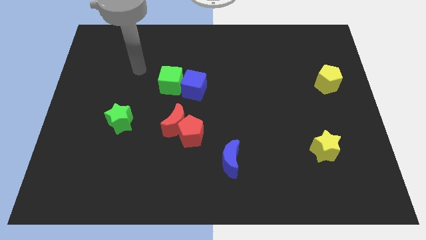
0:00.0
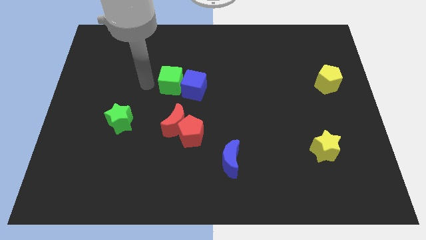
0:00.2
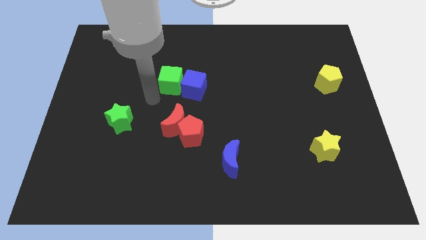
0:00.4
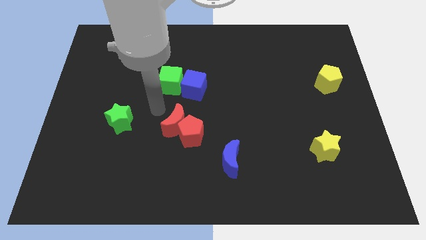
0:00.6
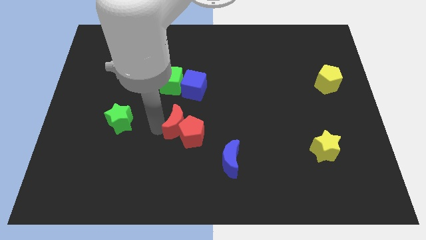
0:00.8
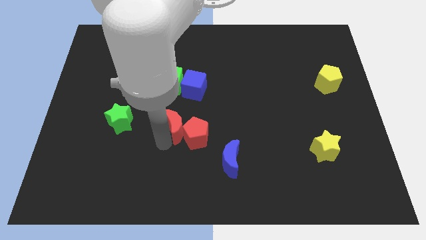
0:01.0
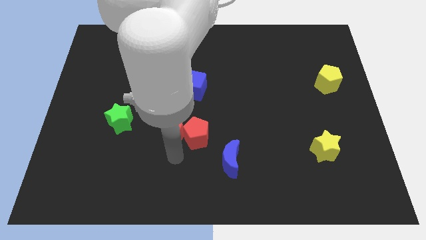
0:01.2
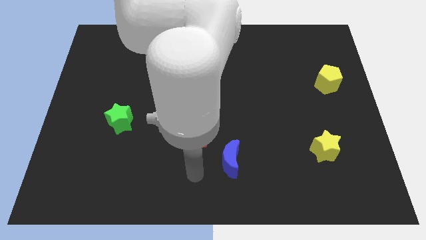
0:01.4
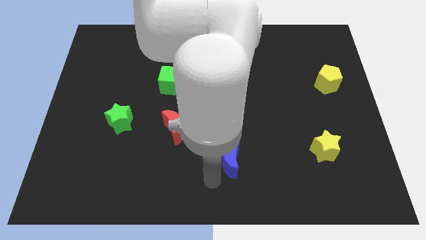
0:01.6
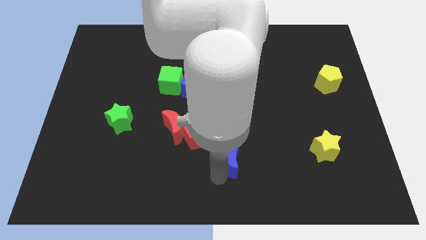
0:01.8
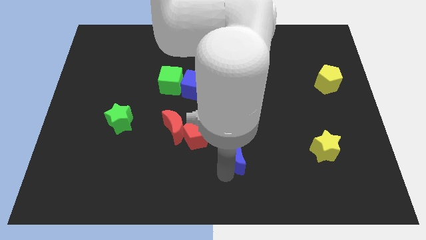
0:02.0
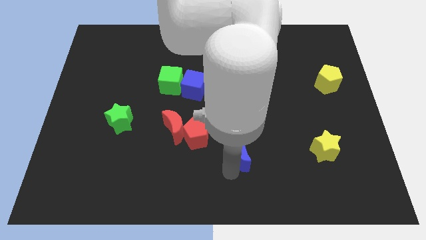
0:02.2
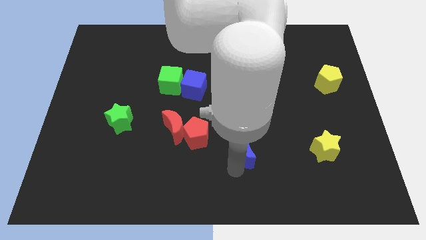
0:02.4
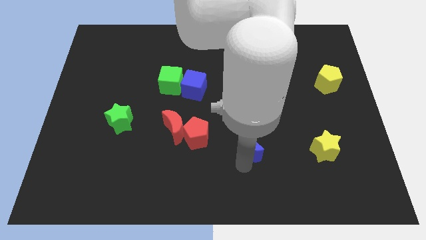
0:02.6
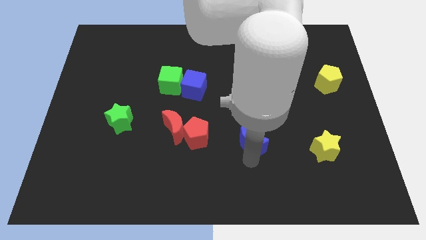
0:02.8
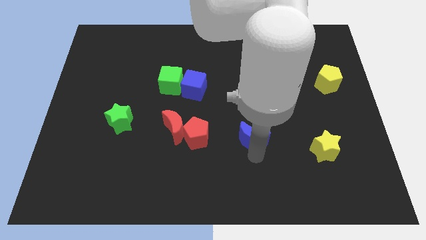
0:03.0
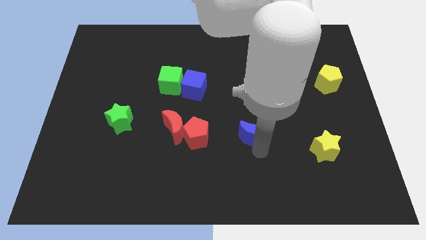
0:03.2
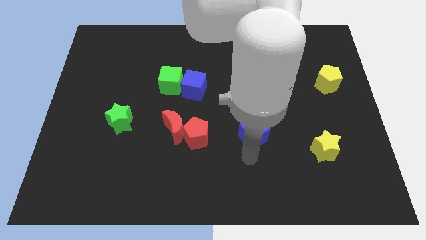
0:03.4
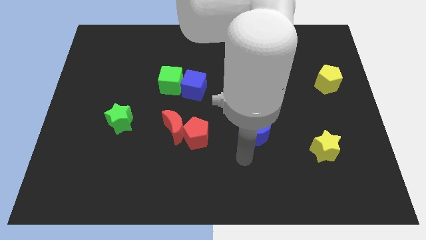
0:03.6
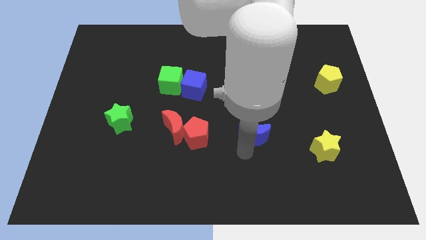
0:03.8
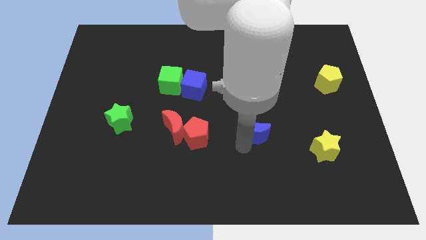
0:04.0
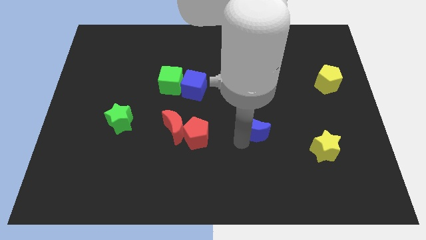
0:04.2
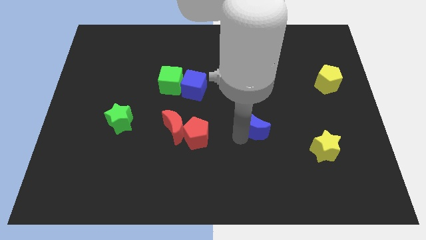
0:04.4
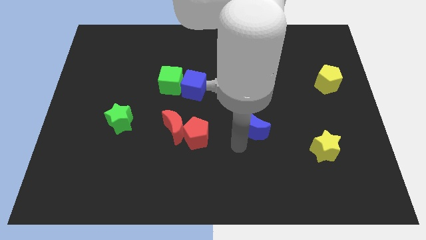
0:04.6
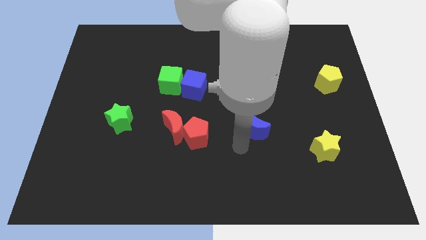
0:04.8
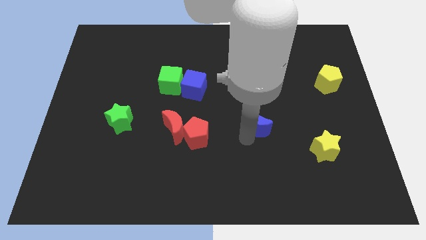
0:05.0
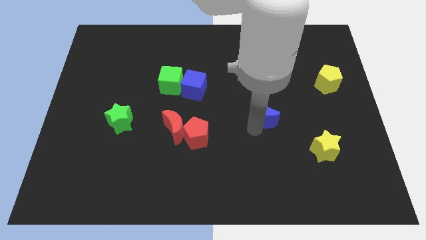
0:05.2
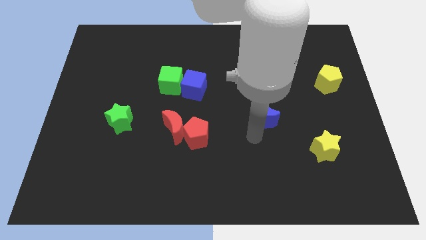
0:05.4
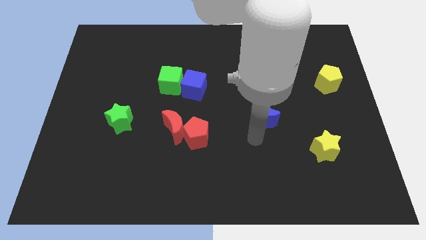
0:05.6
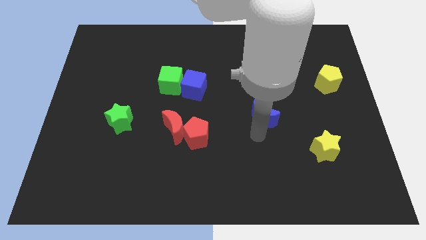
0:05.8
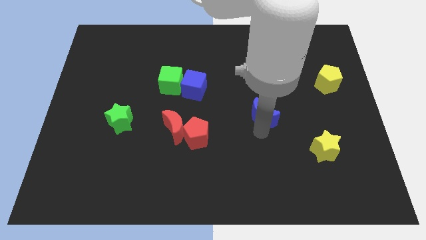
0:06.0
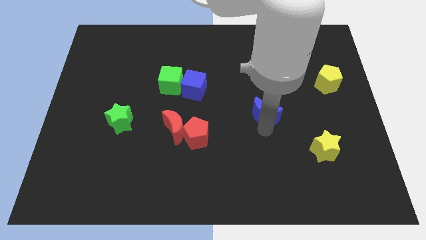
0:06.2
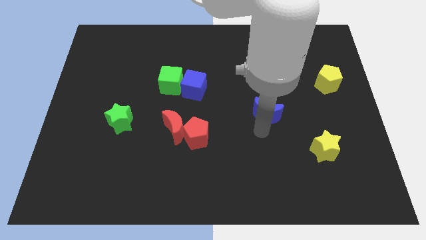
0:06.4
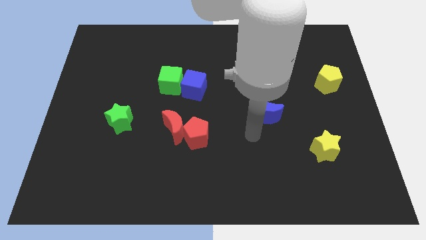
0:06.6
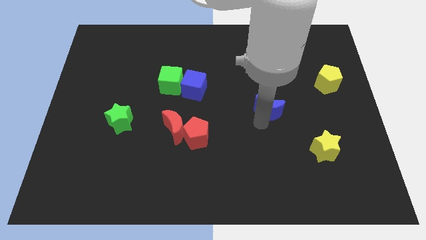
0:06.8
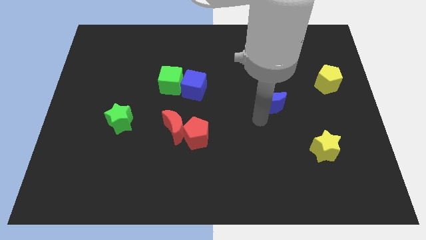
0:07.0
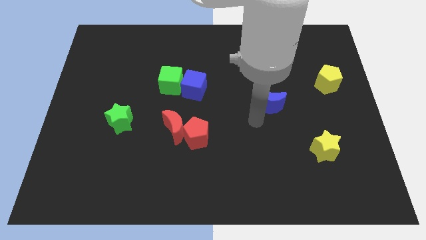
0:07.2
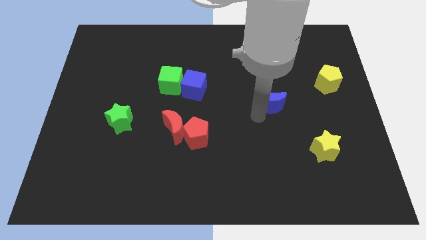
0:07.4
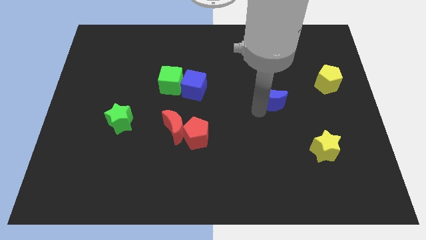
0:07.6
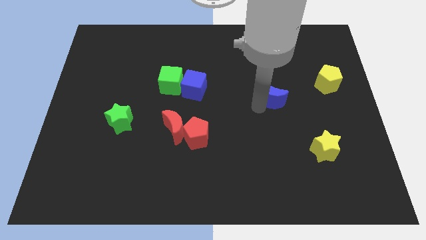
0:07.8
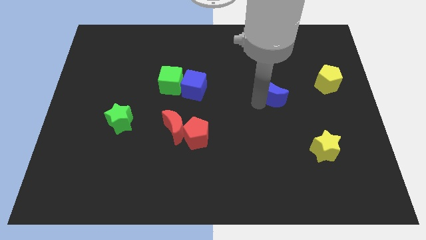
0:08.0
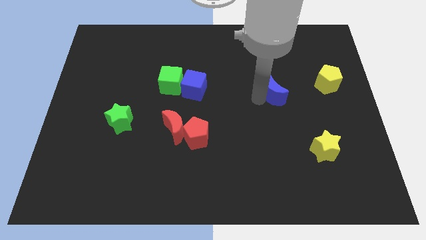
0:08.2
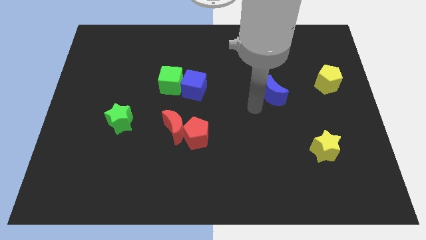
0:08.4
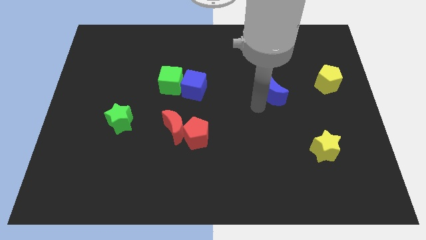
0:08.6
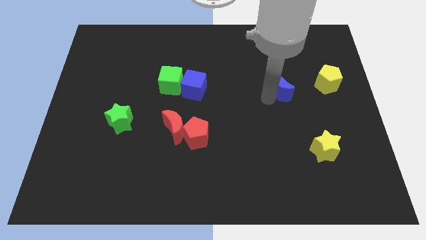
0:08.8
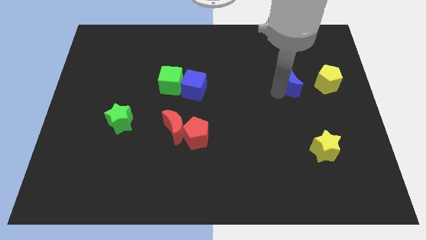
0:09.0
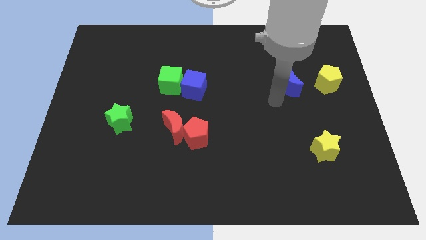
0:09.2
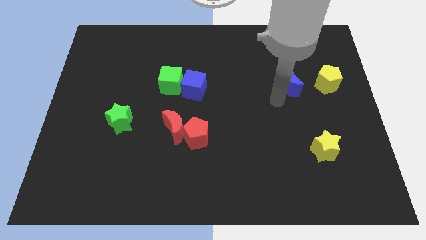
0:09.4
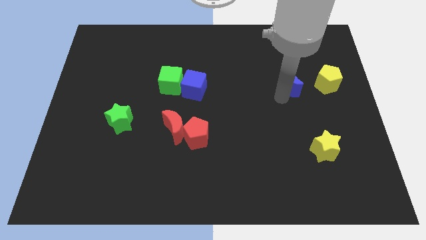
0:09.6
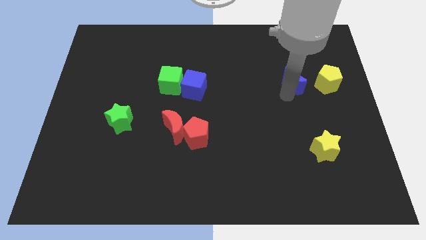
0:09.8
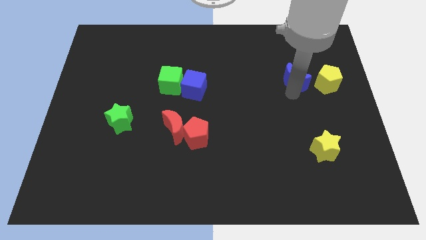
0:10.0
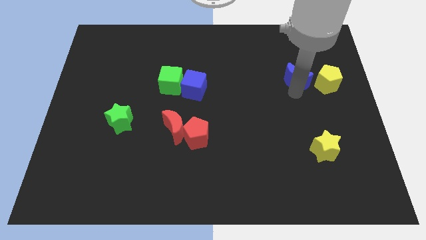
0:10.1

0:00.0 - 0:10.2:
move the blue moon to the top left side of the yellow pentagon

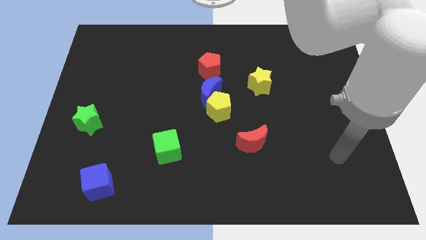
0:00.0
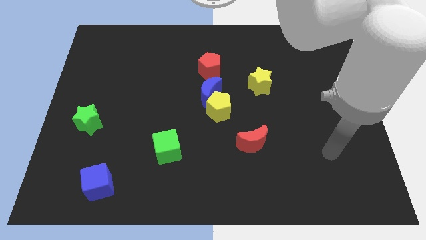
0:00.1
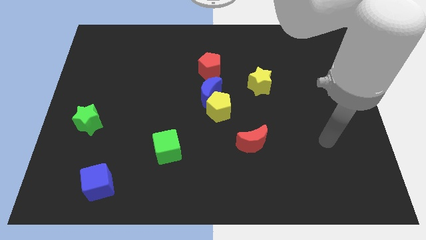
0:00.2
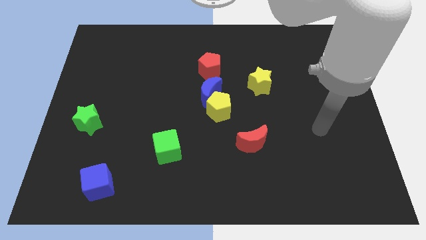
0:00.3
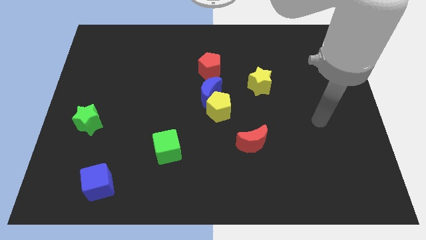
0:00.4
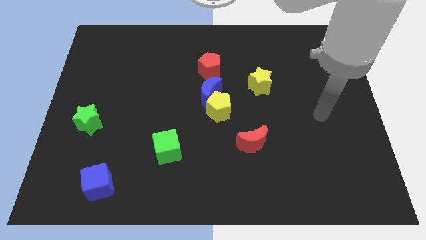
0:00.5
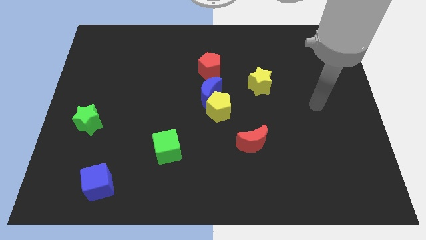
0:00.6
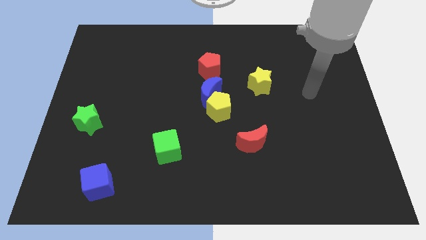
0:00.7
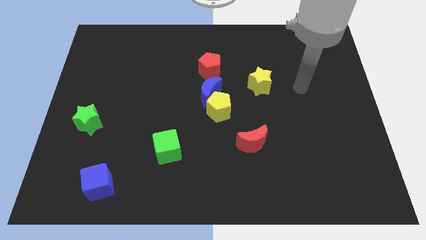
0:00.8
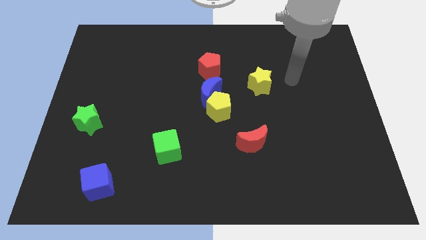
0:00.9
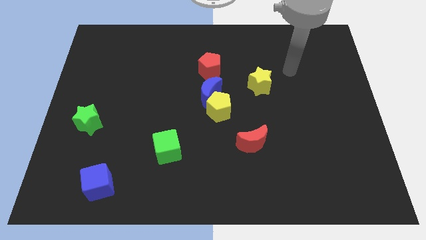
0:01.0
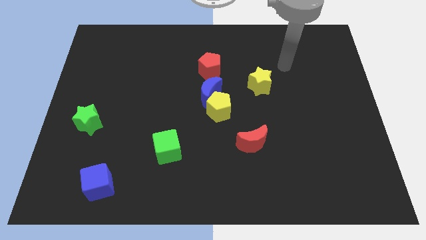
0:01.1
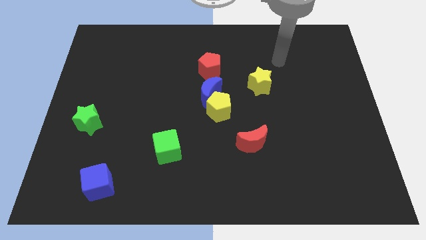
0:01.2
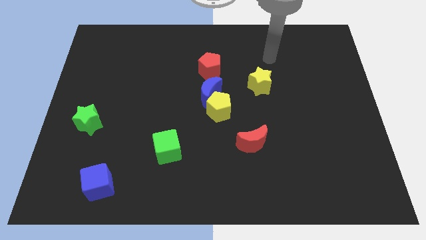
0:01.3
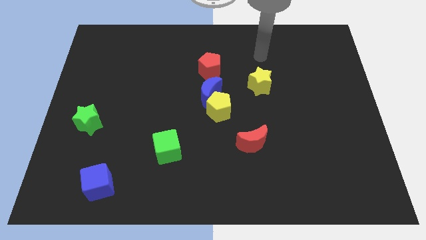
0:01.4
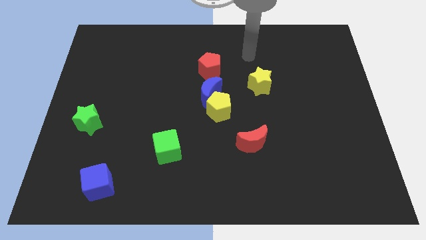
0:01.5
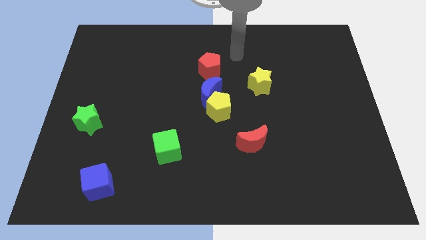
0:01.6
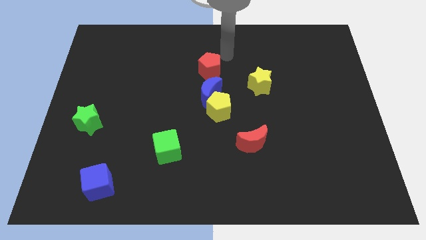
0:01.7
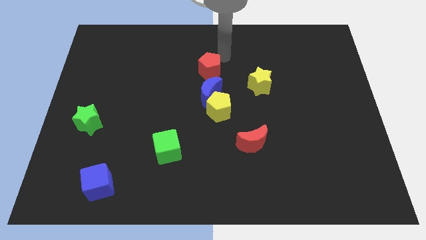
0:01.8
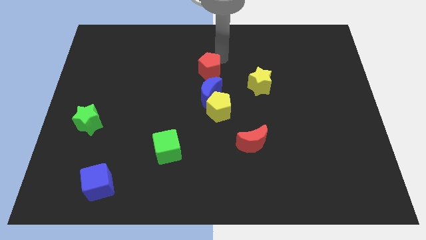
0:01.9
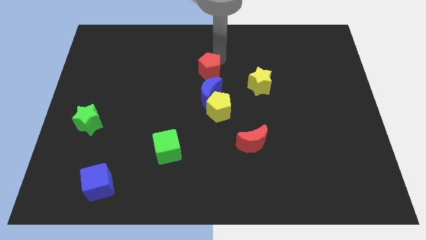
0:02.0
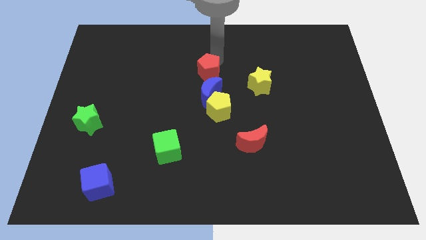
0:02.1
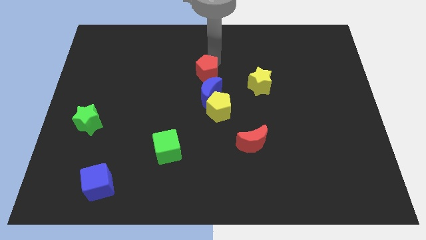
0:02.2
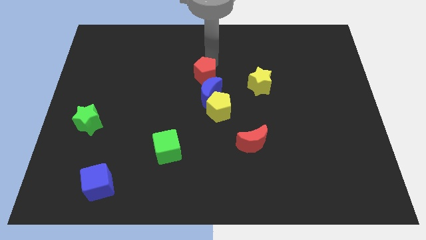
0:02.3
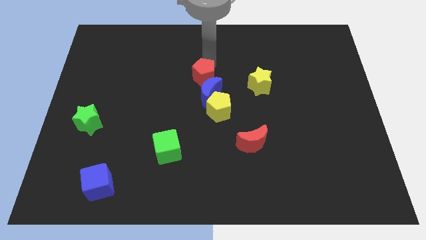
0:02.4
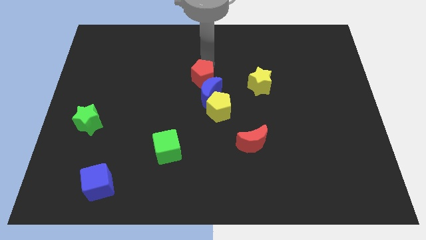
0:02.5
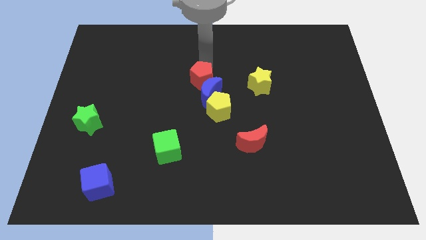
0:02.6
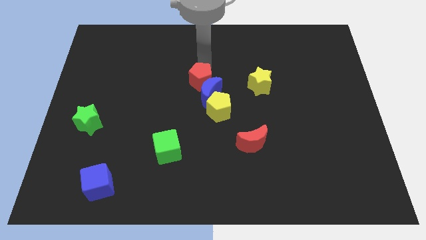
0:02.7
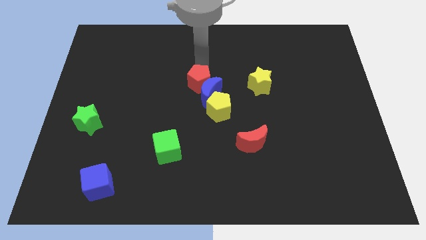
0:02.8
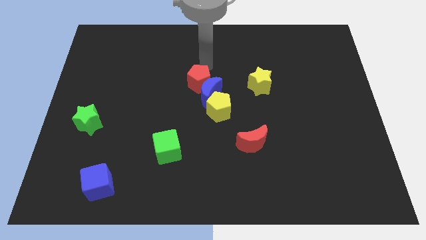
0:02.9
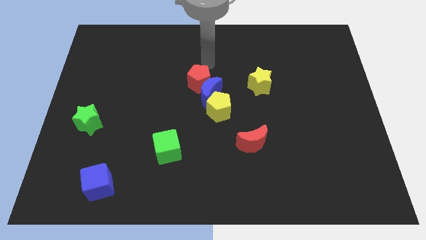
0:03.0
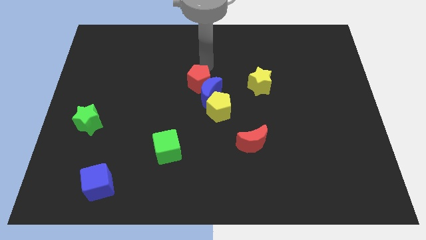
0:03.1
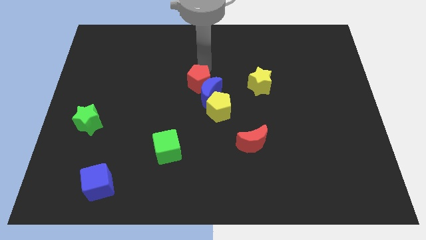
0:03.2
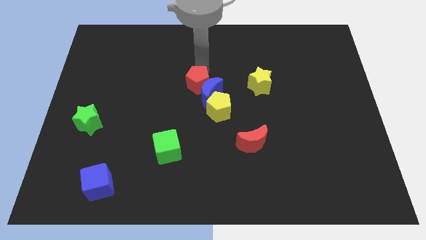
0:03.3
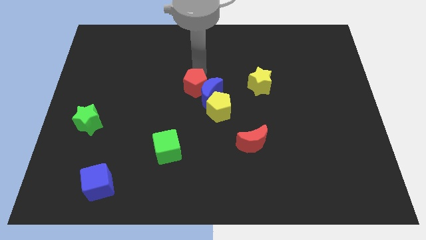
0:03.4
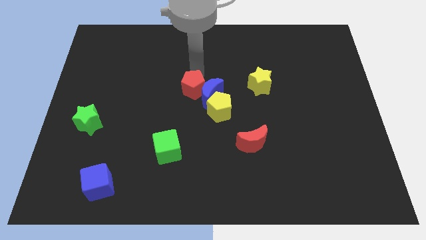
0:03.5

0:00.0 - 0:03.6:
move the red pentagon diagonally down and to the left of the blue moon
